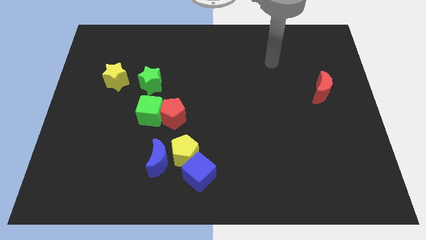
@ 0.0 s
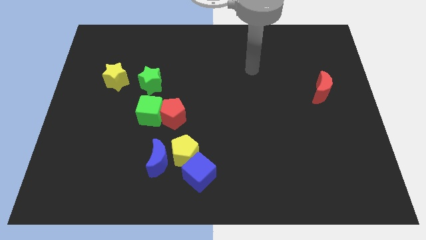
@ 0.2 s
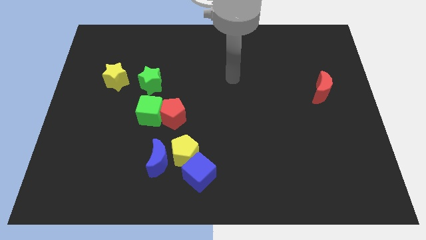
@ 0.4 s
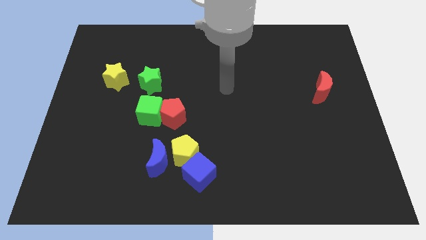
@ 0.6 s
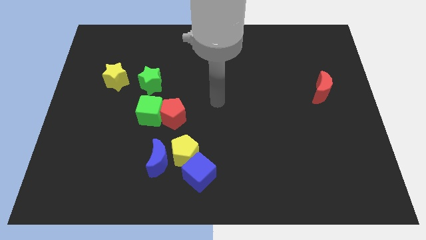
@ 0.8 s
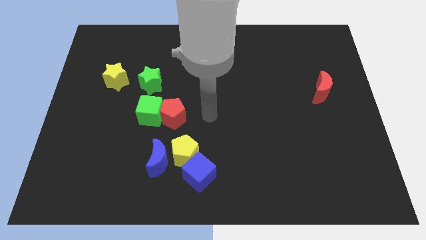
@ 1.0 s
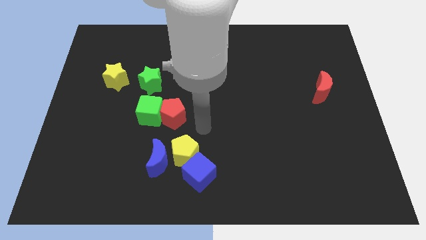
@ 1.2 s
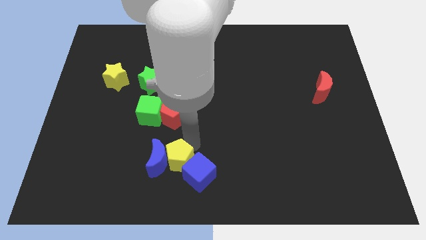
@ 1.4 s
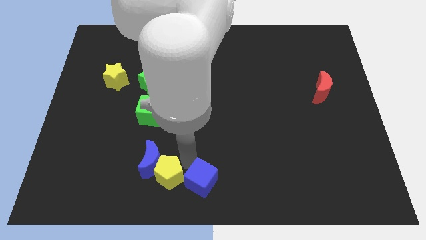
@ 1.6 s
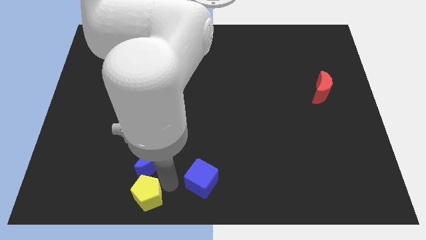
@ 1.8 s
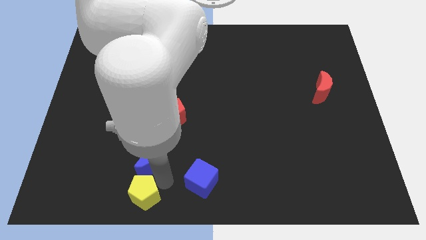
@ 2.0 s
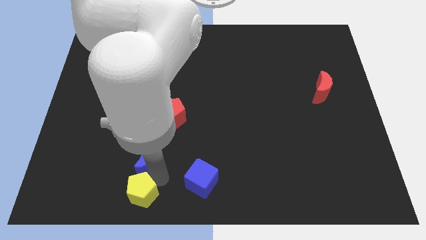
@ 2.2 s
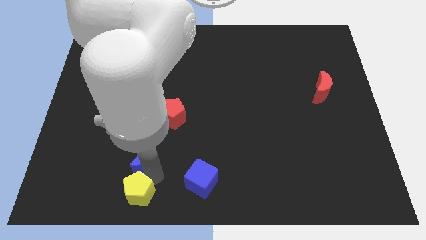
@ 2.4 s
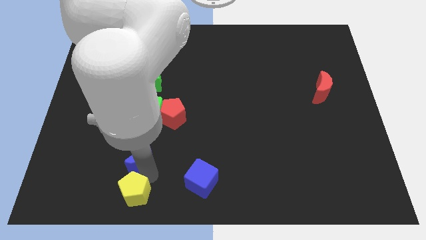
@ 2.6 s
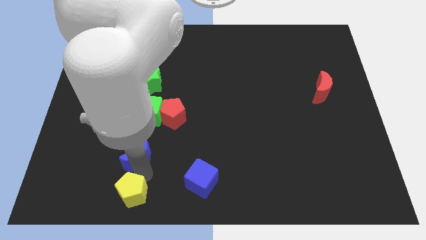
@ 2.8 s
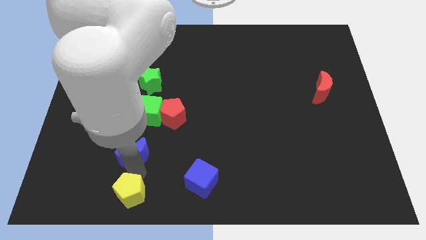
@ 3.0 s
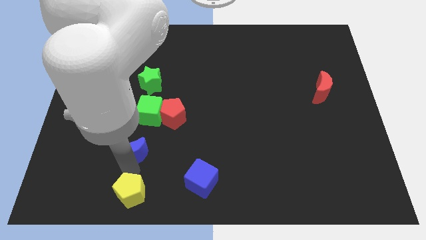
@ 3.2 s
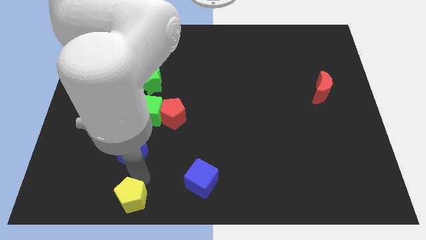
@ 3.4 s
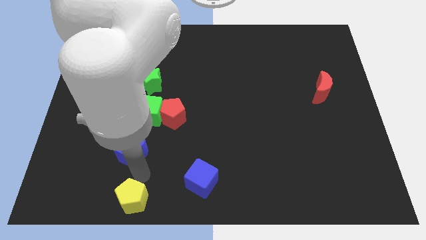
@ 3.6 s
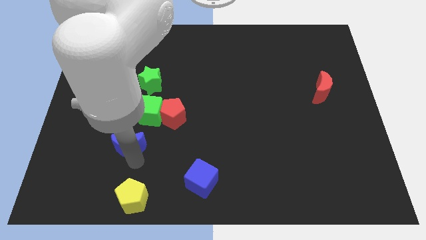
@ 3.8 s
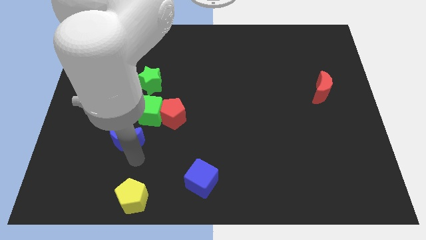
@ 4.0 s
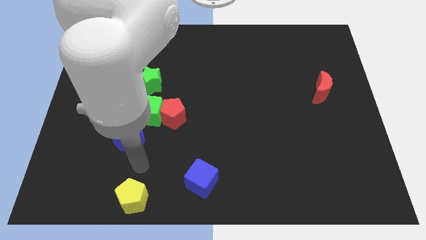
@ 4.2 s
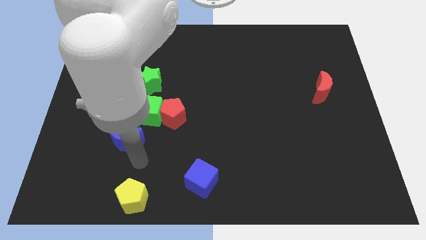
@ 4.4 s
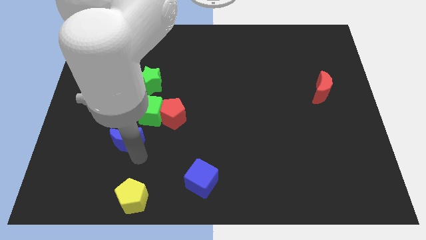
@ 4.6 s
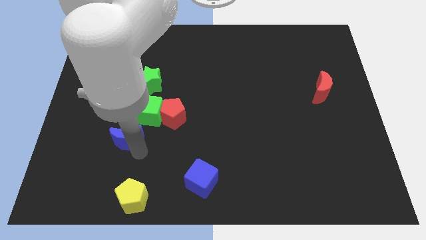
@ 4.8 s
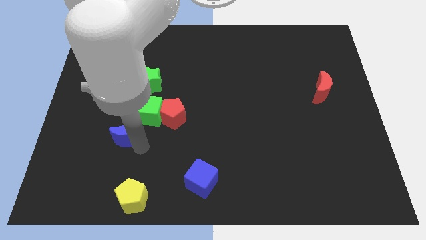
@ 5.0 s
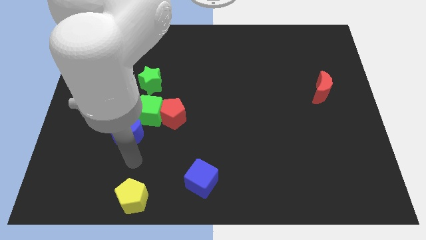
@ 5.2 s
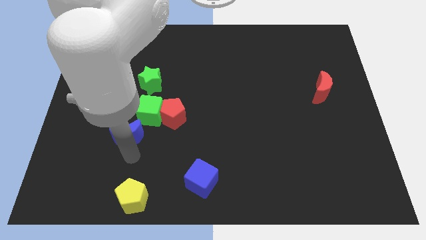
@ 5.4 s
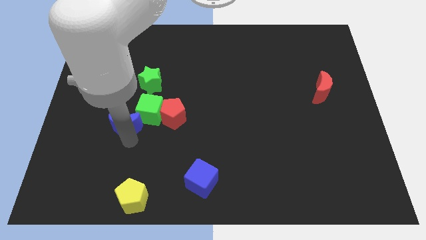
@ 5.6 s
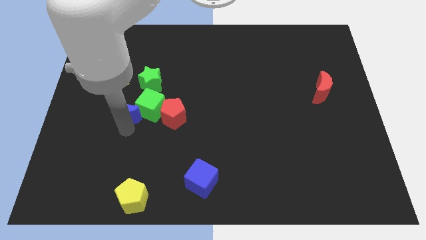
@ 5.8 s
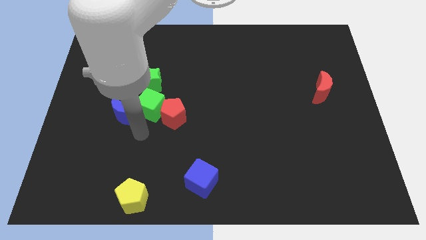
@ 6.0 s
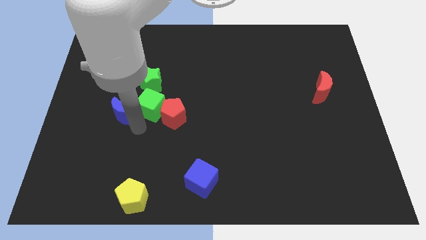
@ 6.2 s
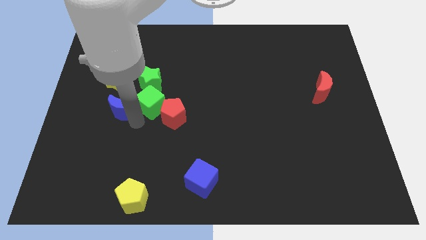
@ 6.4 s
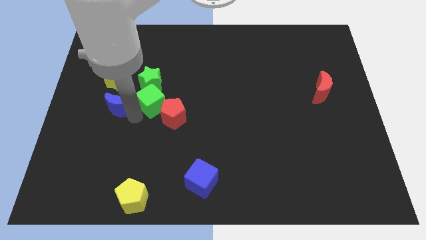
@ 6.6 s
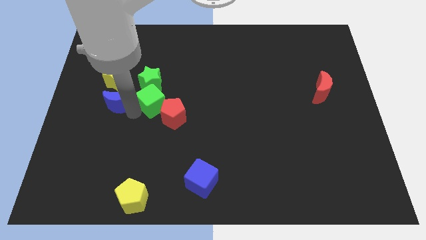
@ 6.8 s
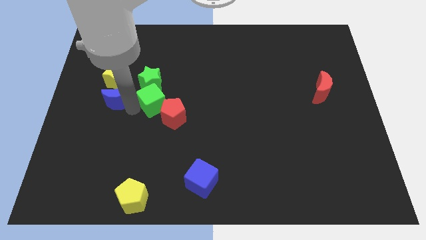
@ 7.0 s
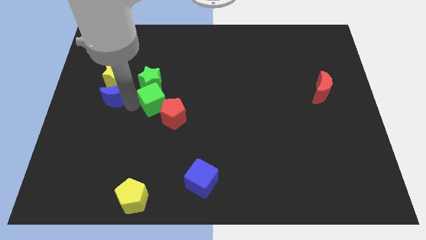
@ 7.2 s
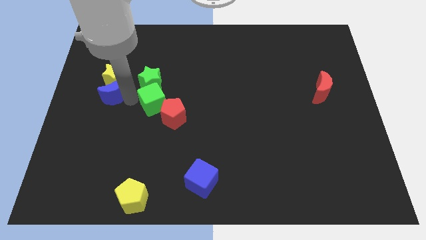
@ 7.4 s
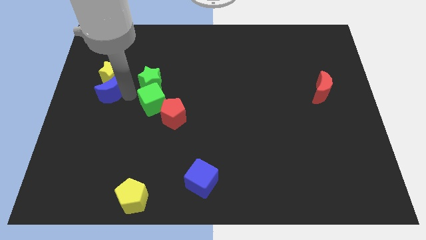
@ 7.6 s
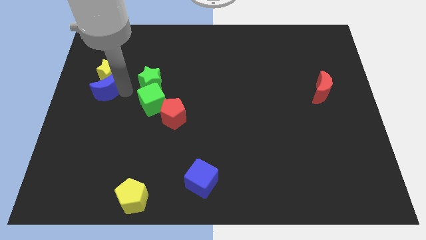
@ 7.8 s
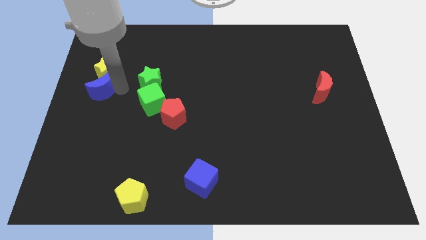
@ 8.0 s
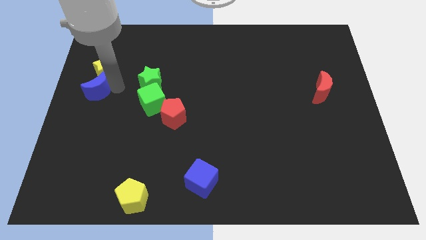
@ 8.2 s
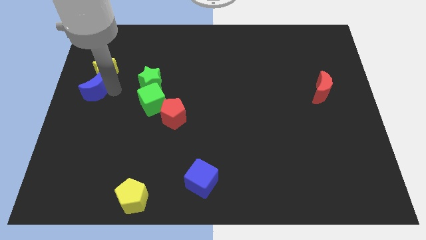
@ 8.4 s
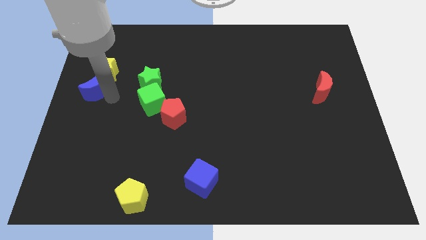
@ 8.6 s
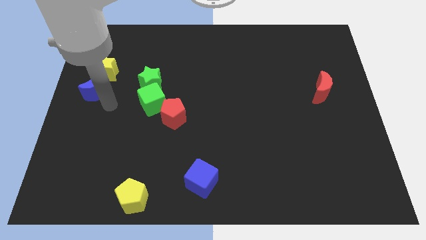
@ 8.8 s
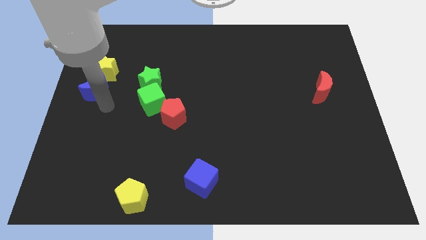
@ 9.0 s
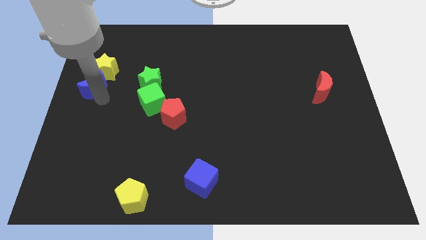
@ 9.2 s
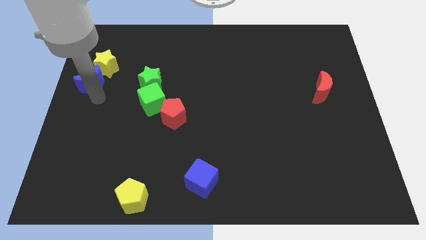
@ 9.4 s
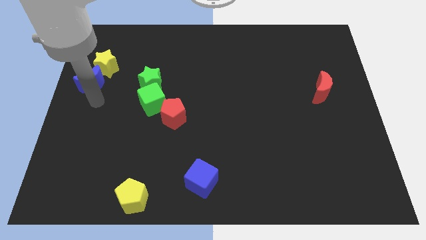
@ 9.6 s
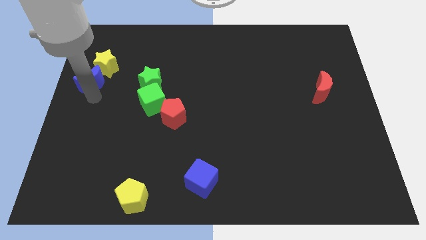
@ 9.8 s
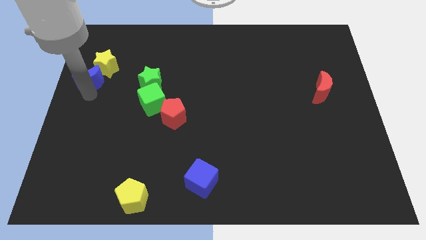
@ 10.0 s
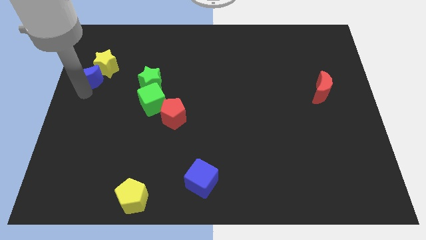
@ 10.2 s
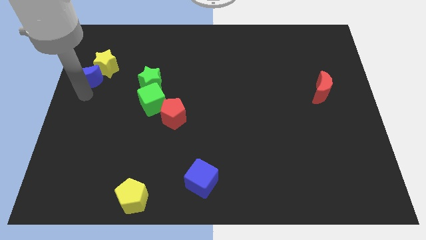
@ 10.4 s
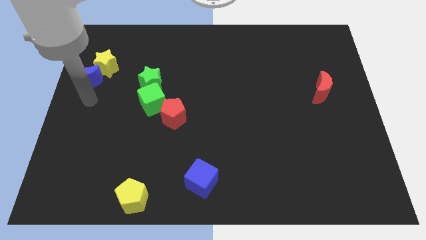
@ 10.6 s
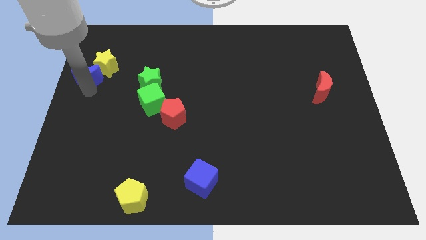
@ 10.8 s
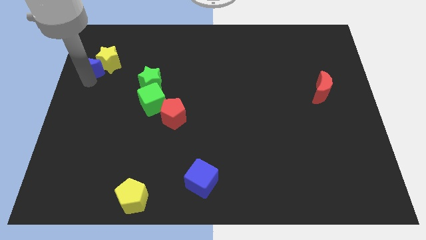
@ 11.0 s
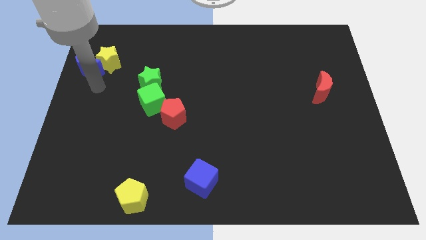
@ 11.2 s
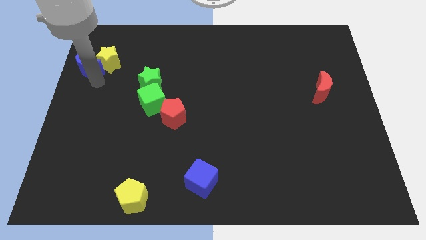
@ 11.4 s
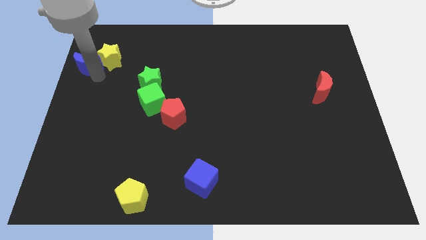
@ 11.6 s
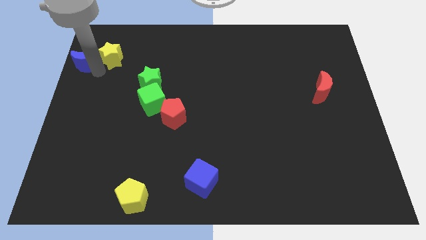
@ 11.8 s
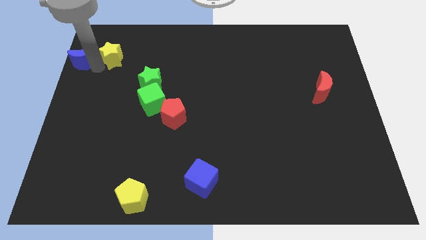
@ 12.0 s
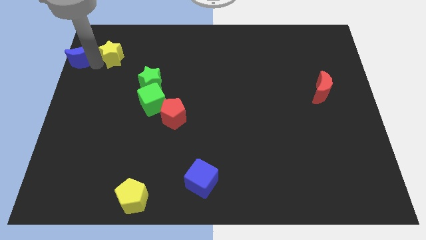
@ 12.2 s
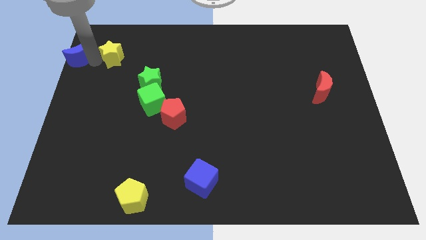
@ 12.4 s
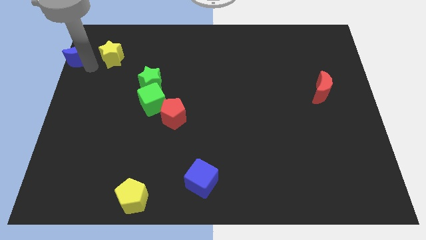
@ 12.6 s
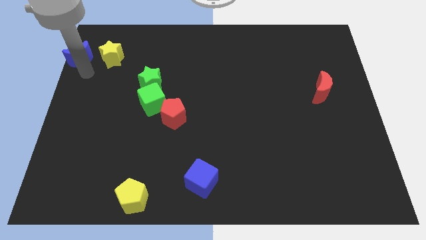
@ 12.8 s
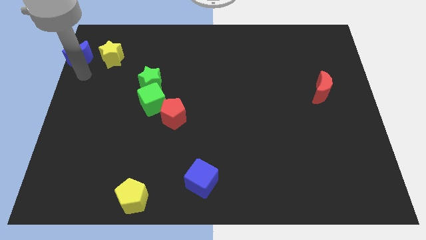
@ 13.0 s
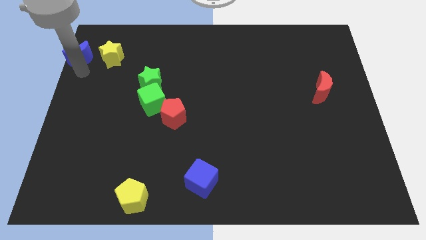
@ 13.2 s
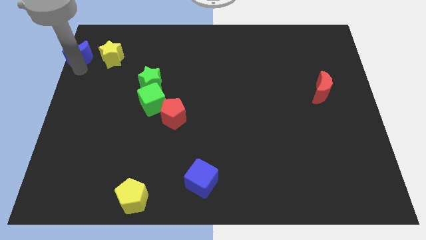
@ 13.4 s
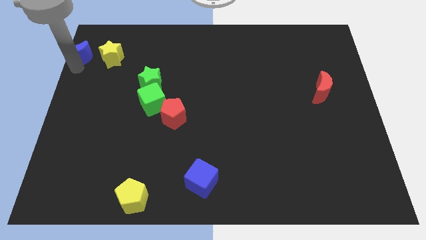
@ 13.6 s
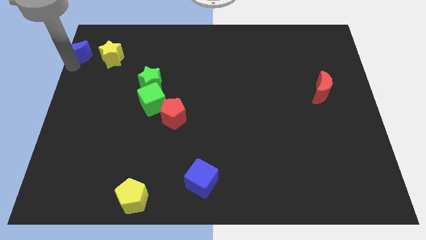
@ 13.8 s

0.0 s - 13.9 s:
move the blue moon to the top left corner
